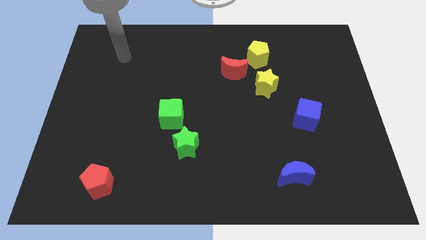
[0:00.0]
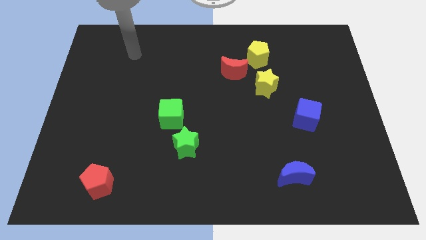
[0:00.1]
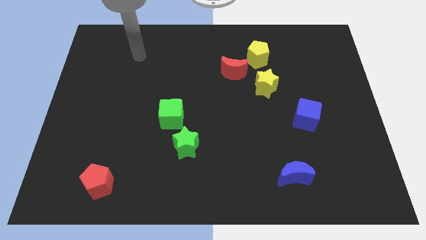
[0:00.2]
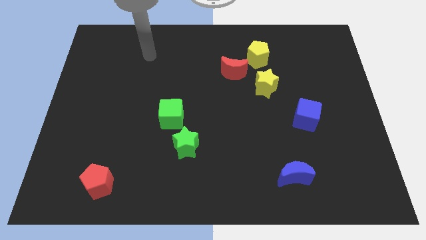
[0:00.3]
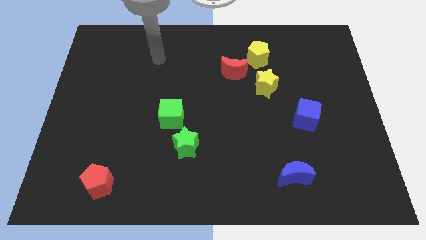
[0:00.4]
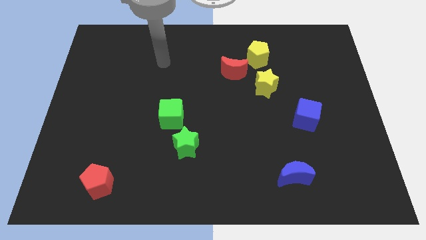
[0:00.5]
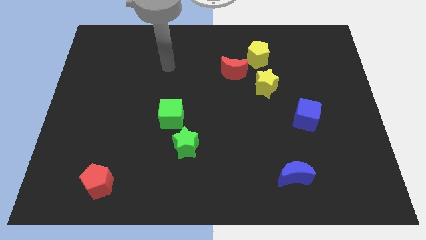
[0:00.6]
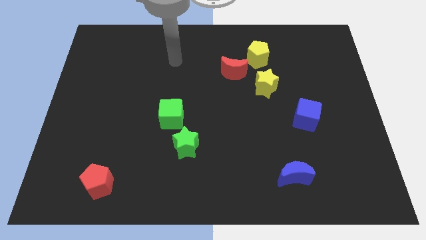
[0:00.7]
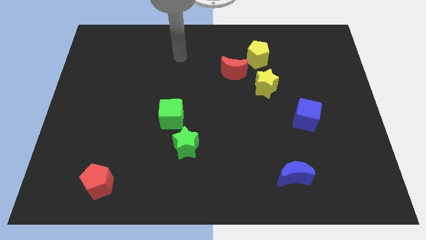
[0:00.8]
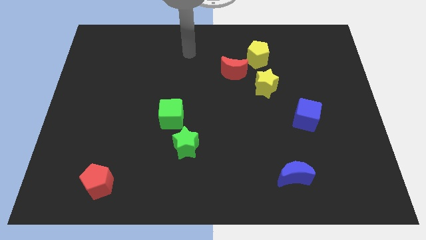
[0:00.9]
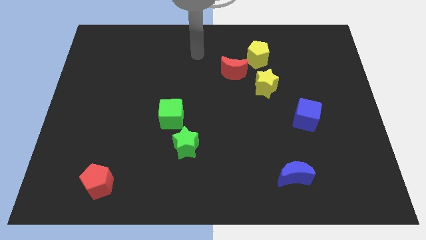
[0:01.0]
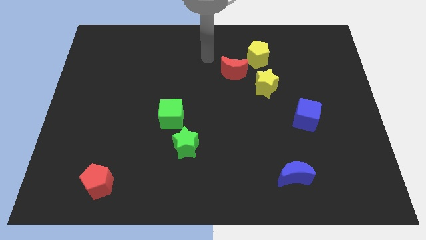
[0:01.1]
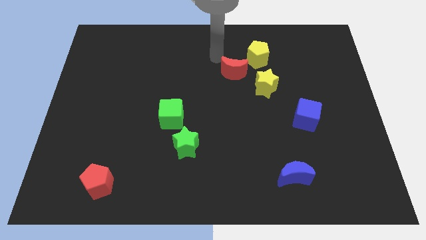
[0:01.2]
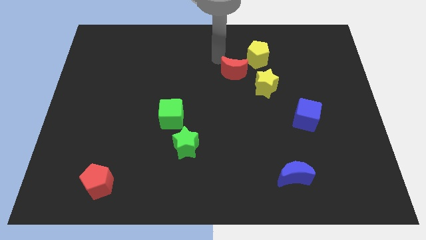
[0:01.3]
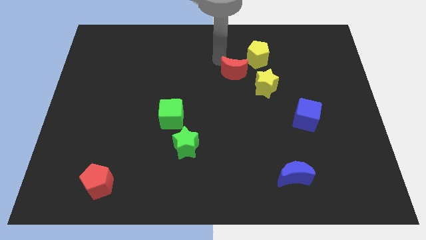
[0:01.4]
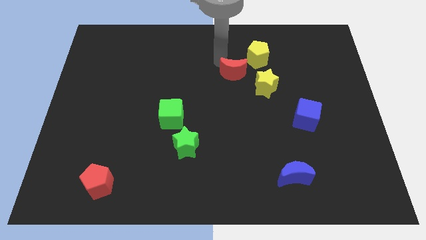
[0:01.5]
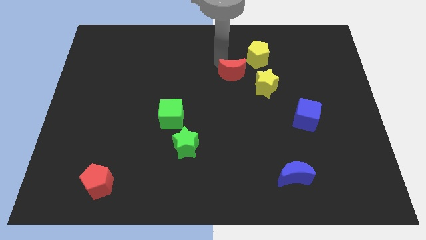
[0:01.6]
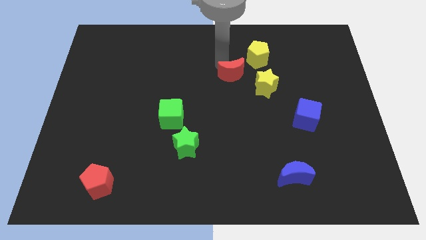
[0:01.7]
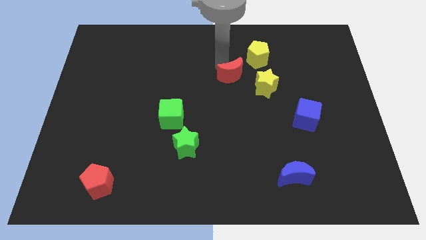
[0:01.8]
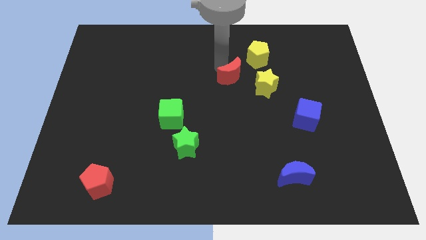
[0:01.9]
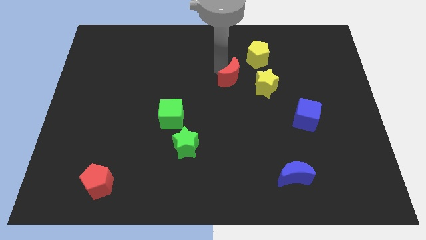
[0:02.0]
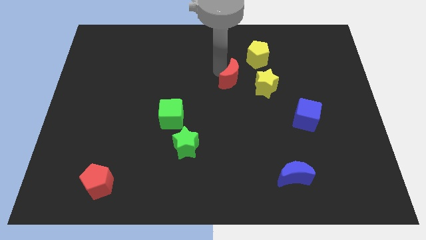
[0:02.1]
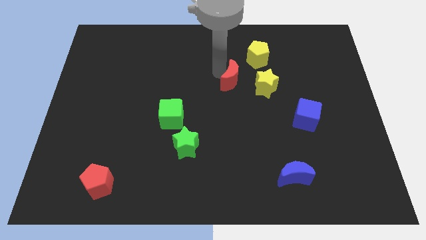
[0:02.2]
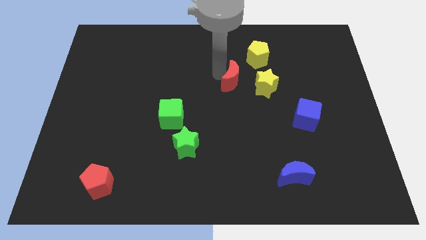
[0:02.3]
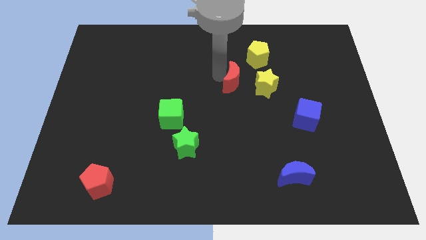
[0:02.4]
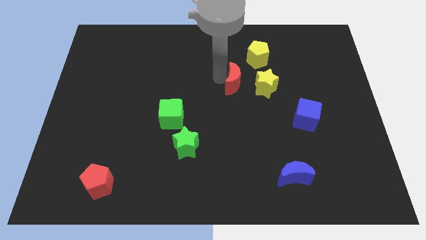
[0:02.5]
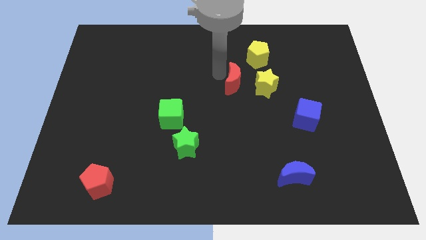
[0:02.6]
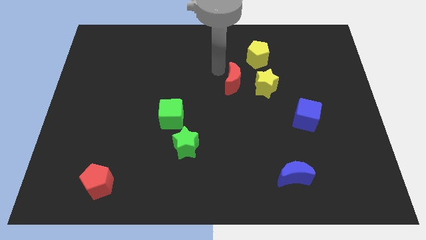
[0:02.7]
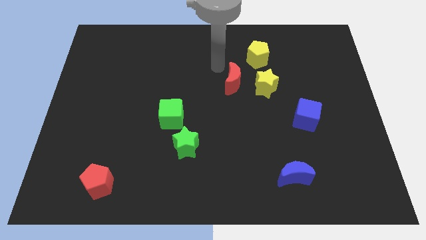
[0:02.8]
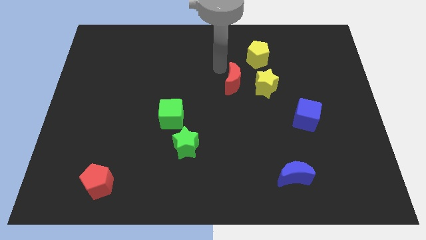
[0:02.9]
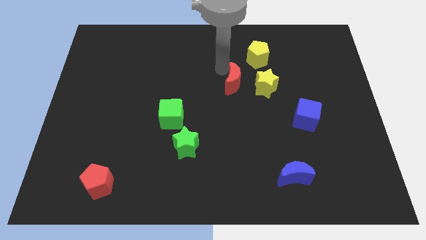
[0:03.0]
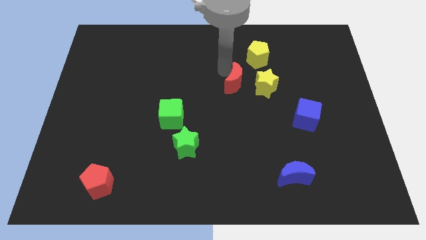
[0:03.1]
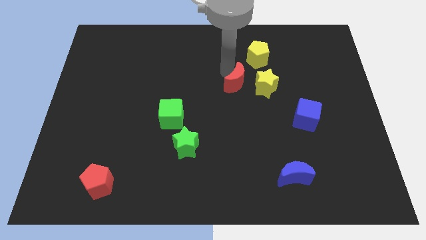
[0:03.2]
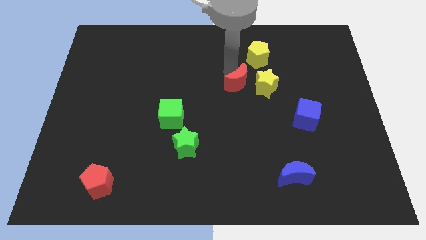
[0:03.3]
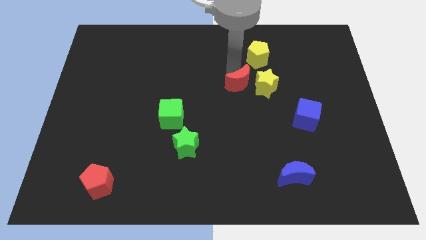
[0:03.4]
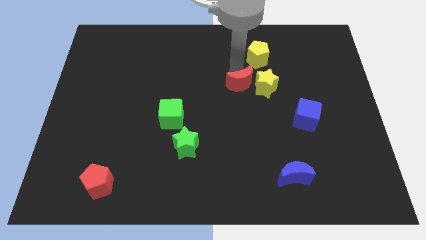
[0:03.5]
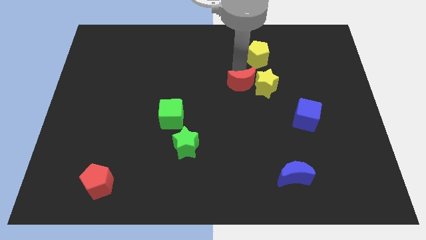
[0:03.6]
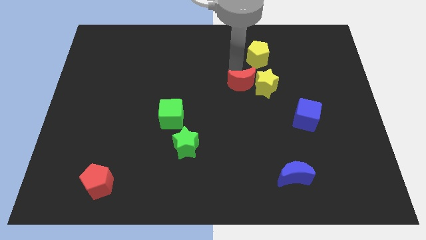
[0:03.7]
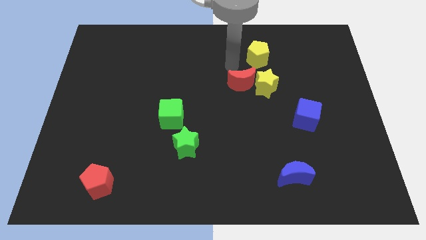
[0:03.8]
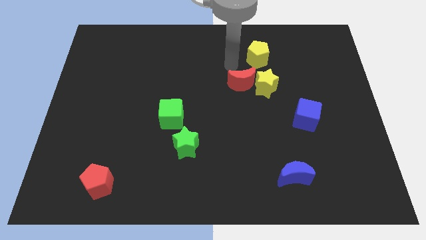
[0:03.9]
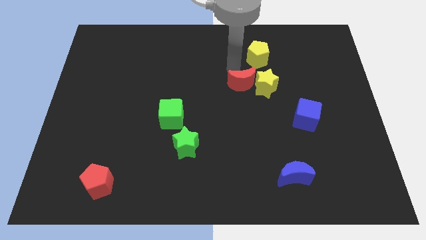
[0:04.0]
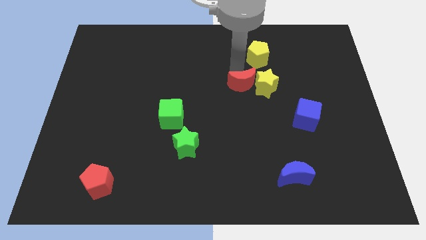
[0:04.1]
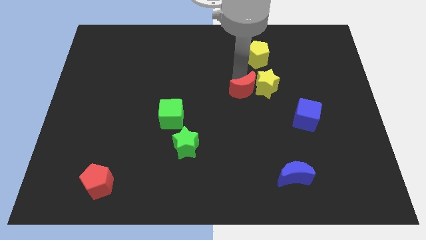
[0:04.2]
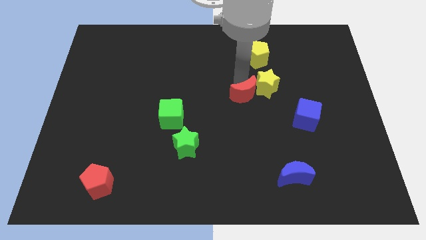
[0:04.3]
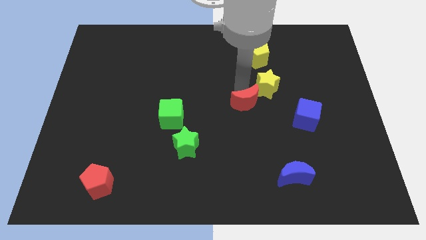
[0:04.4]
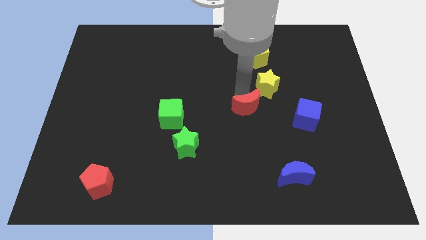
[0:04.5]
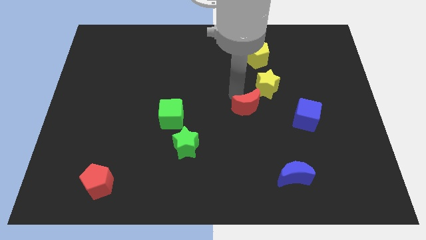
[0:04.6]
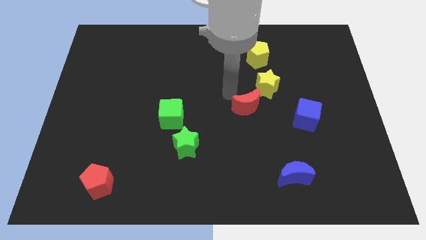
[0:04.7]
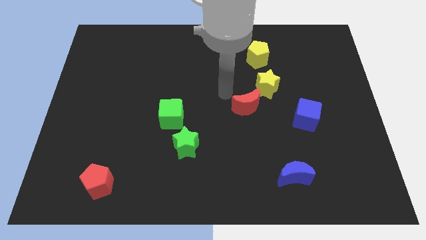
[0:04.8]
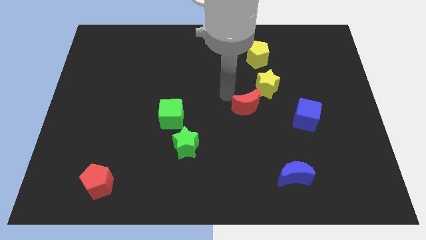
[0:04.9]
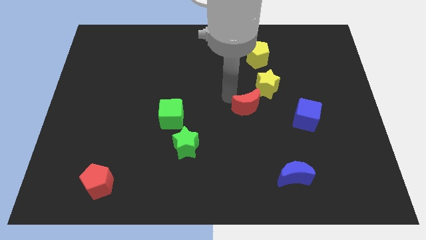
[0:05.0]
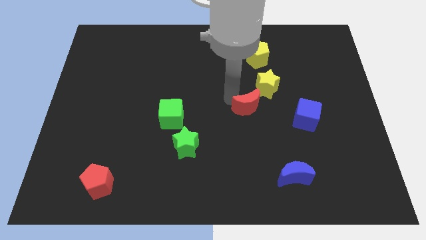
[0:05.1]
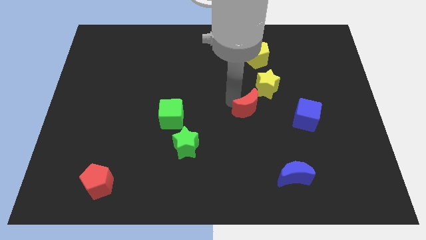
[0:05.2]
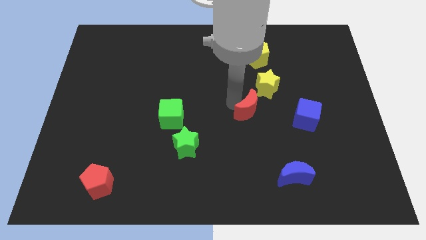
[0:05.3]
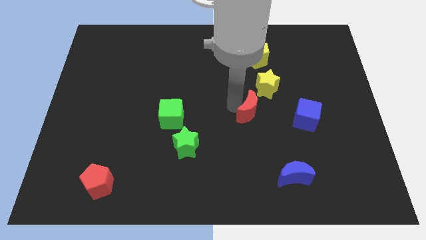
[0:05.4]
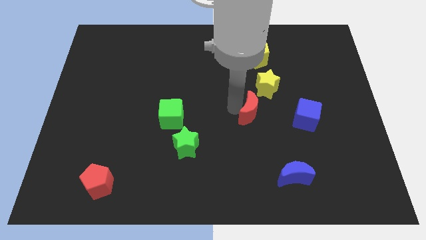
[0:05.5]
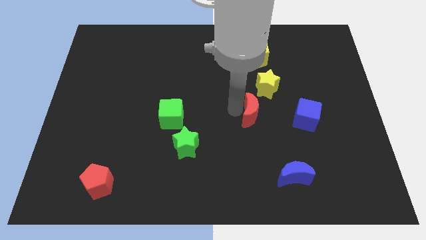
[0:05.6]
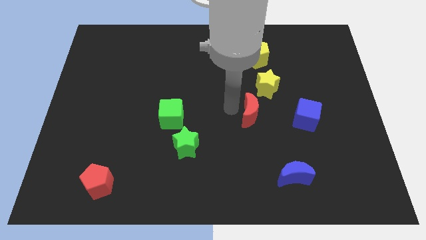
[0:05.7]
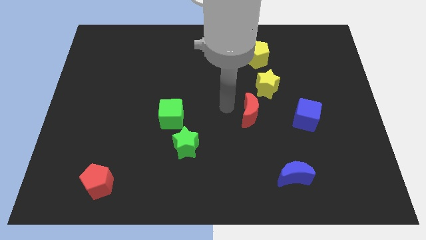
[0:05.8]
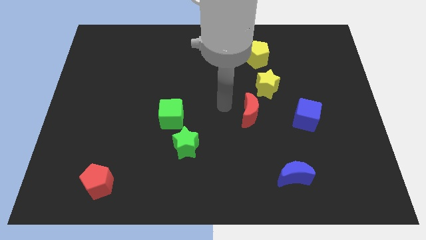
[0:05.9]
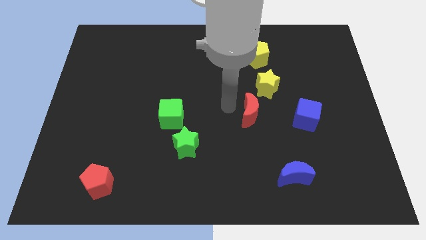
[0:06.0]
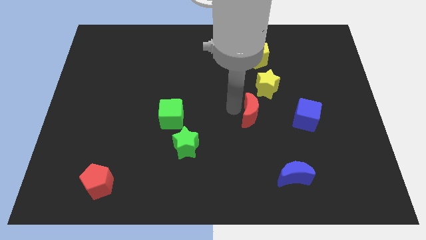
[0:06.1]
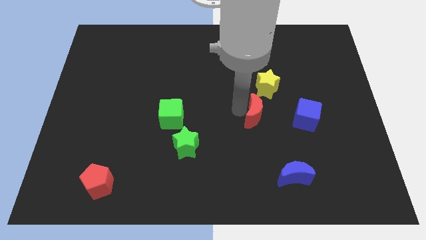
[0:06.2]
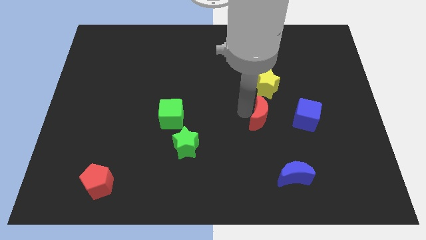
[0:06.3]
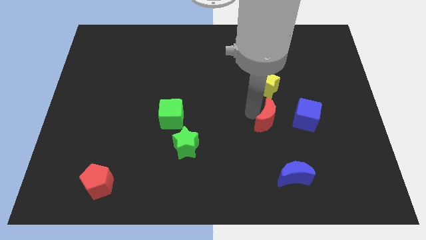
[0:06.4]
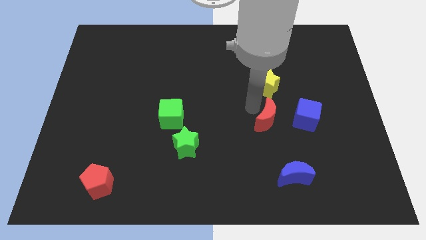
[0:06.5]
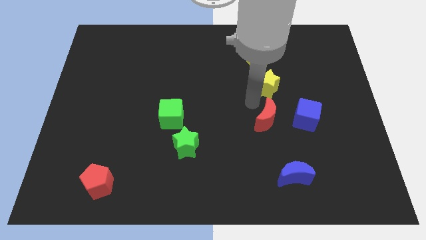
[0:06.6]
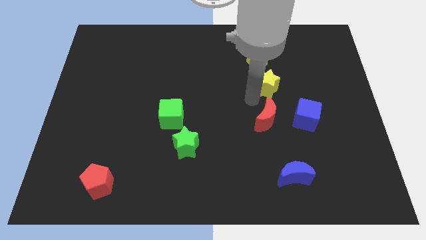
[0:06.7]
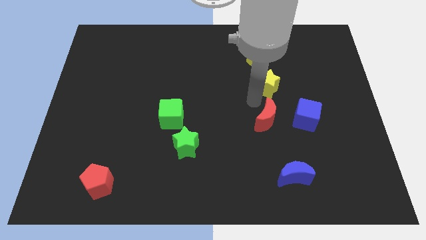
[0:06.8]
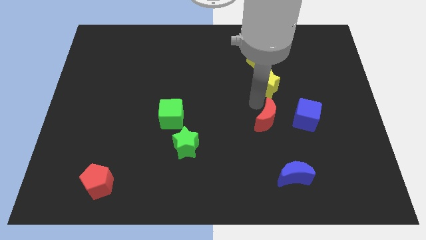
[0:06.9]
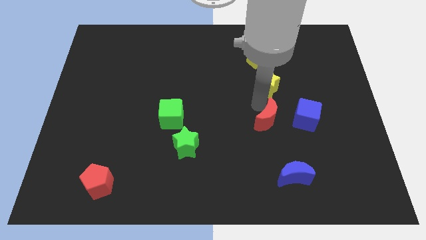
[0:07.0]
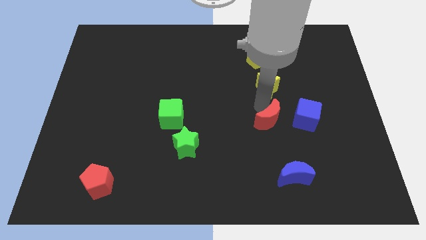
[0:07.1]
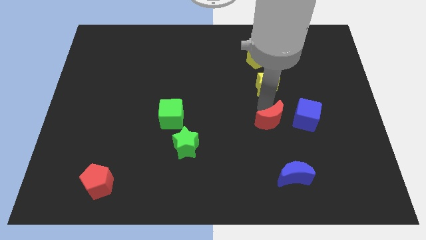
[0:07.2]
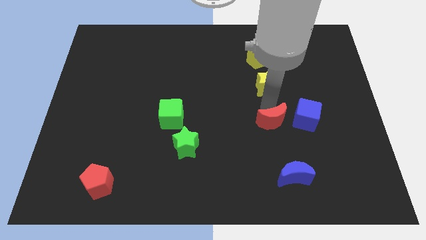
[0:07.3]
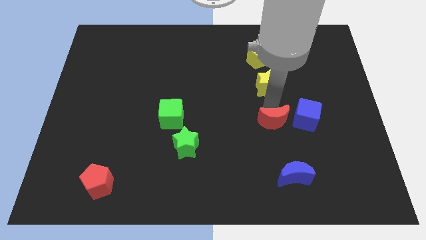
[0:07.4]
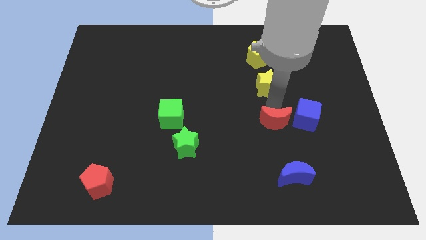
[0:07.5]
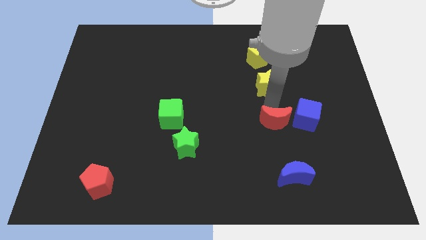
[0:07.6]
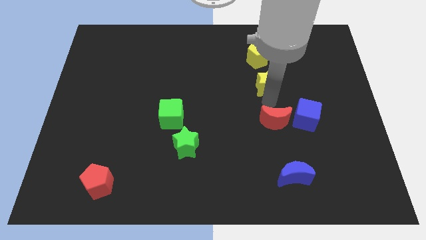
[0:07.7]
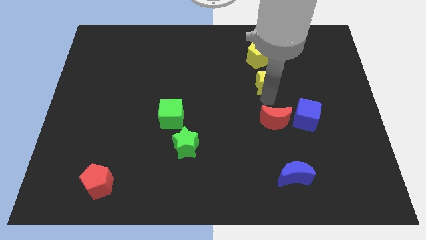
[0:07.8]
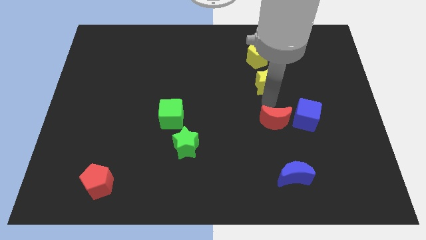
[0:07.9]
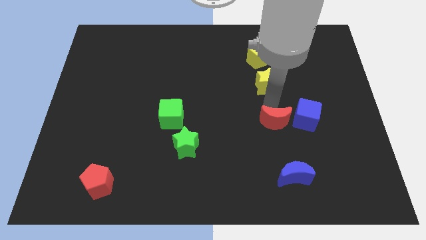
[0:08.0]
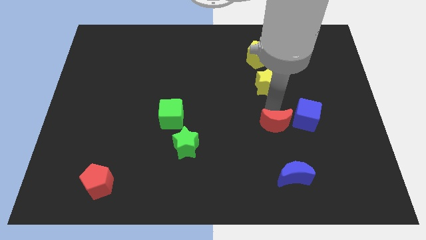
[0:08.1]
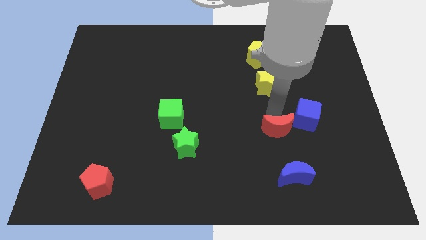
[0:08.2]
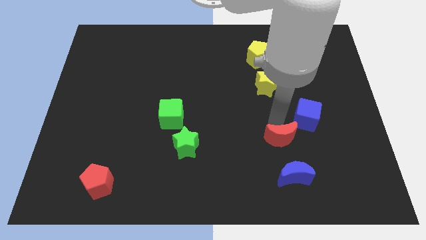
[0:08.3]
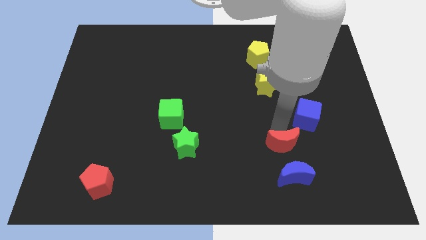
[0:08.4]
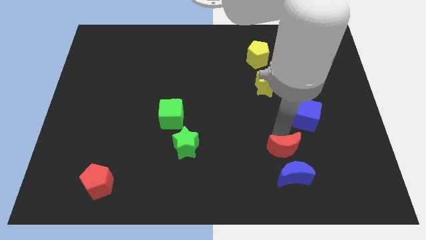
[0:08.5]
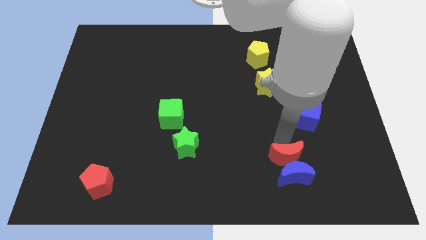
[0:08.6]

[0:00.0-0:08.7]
push the red moon to the blue moon
